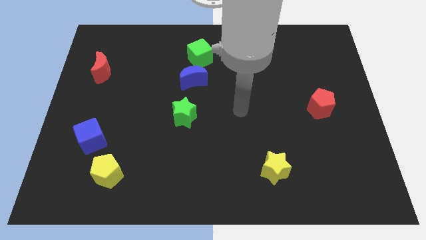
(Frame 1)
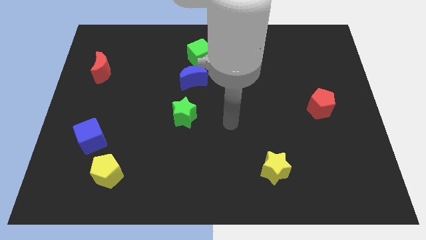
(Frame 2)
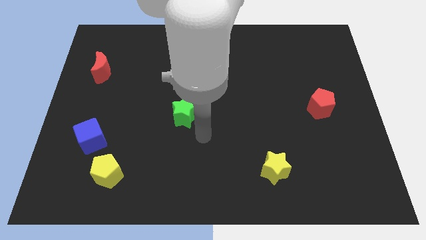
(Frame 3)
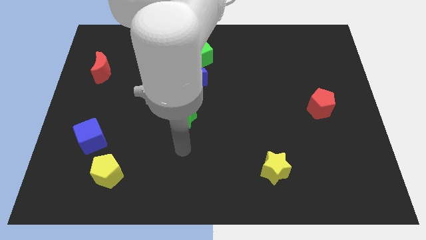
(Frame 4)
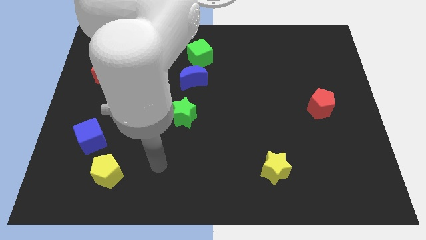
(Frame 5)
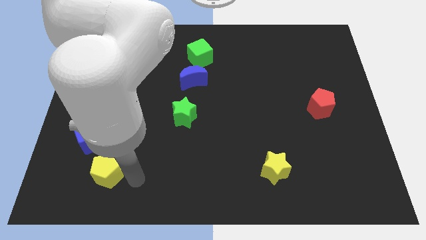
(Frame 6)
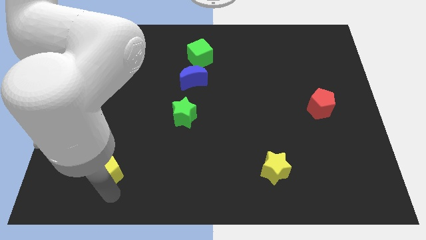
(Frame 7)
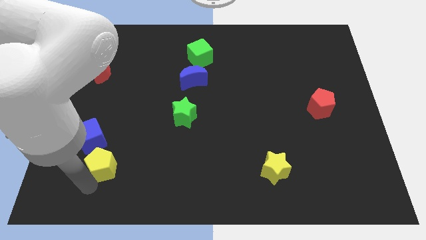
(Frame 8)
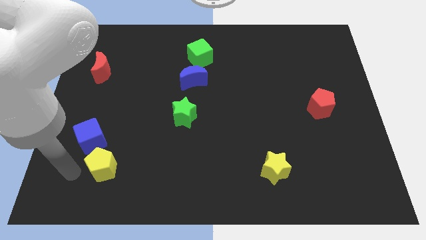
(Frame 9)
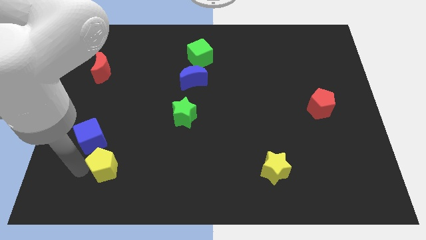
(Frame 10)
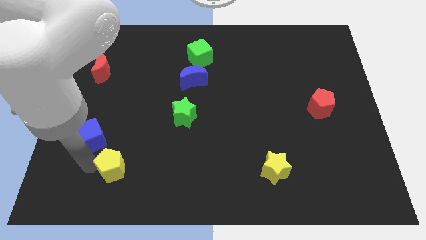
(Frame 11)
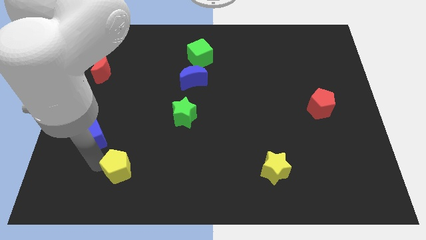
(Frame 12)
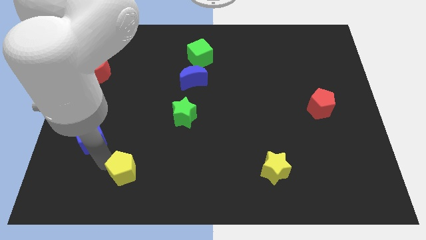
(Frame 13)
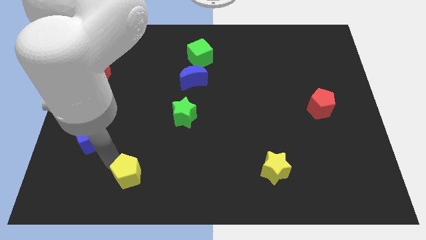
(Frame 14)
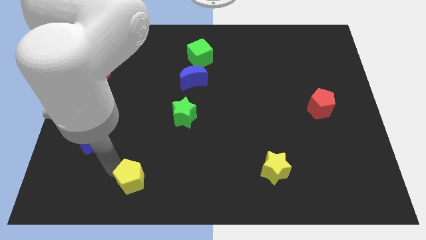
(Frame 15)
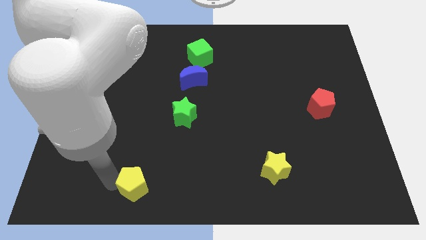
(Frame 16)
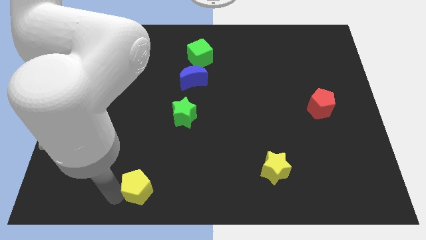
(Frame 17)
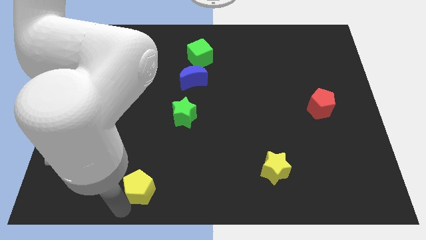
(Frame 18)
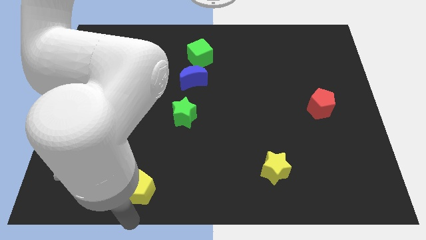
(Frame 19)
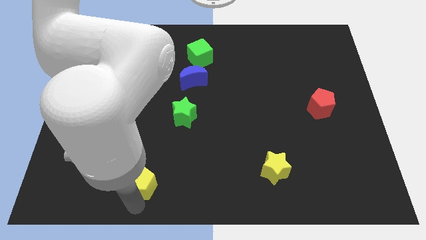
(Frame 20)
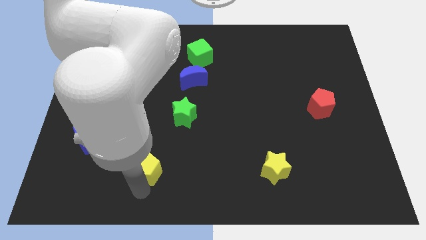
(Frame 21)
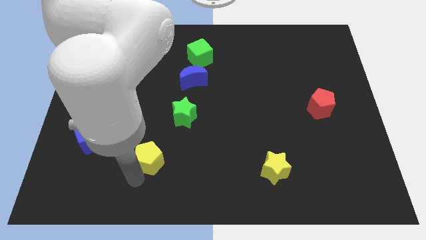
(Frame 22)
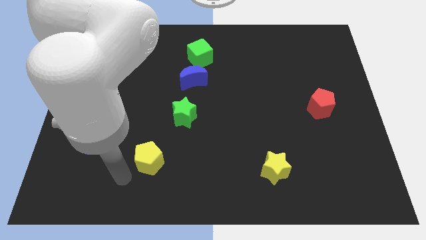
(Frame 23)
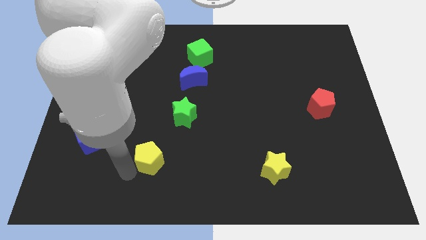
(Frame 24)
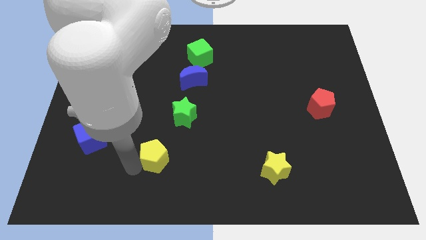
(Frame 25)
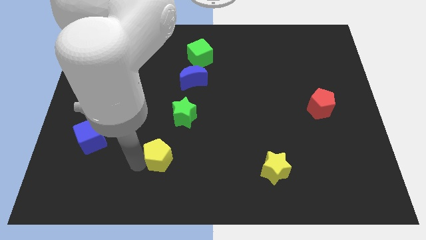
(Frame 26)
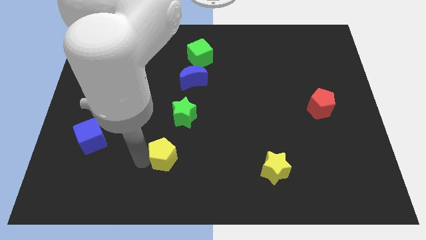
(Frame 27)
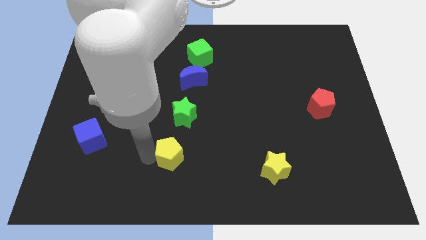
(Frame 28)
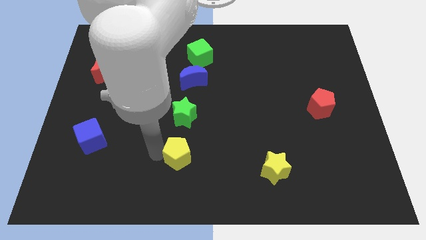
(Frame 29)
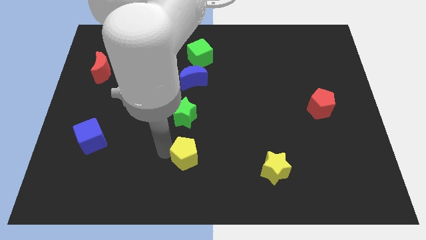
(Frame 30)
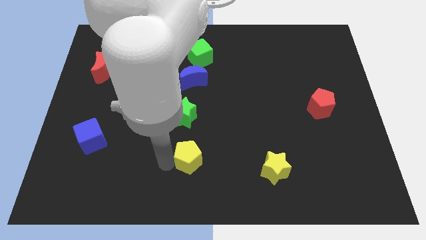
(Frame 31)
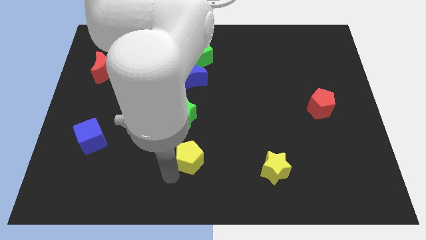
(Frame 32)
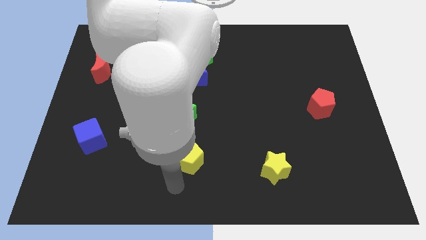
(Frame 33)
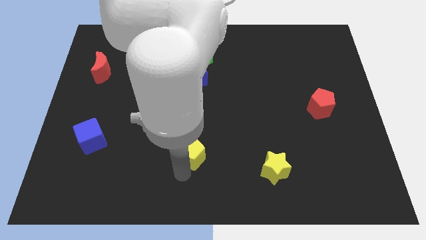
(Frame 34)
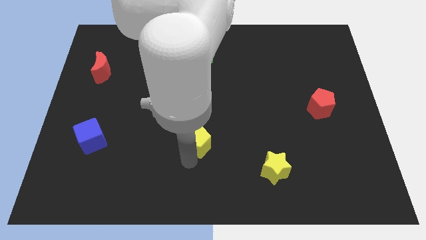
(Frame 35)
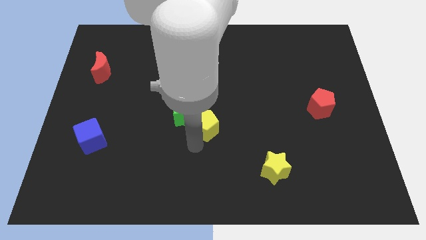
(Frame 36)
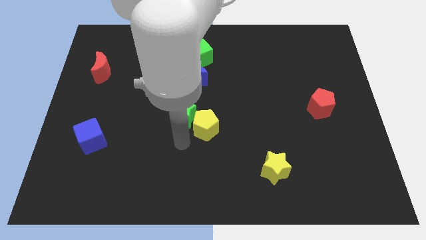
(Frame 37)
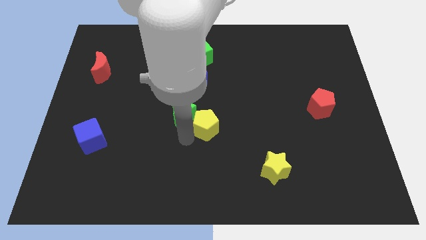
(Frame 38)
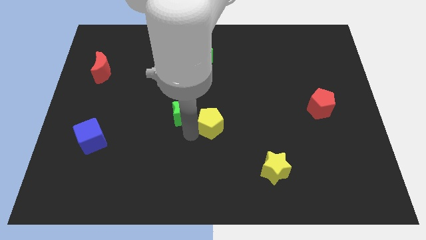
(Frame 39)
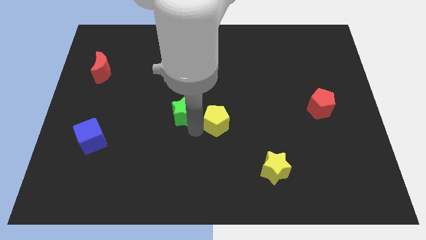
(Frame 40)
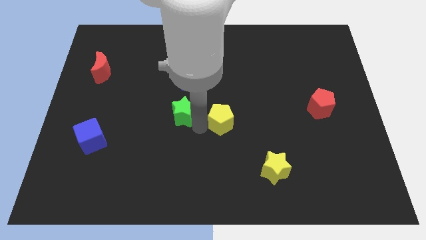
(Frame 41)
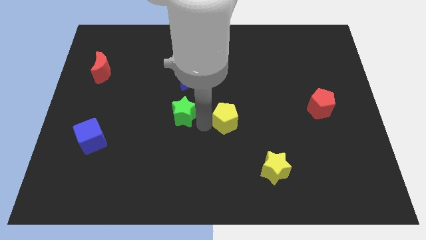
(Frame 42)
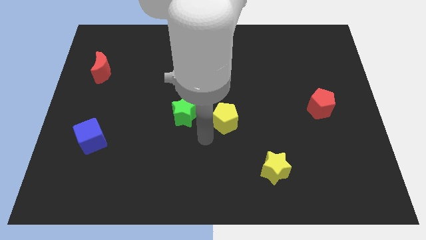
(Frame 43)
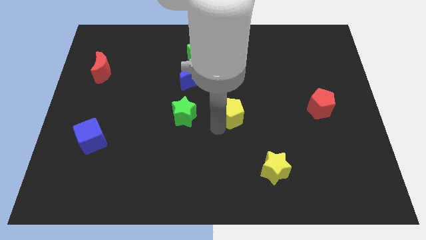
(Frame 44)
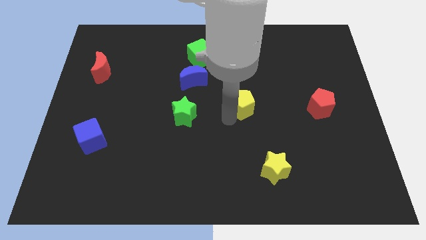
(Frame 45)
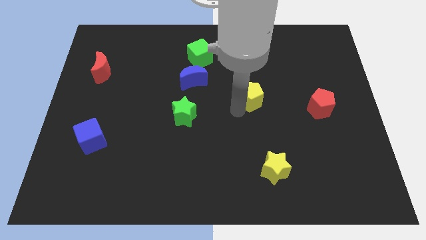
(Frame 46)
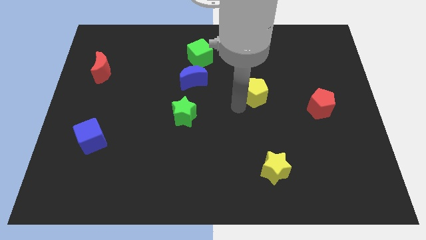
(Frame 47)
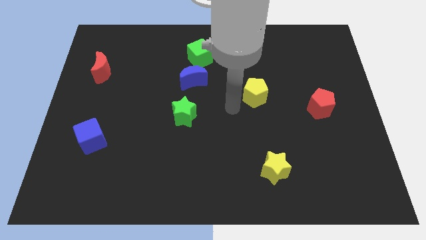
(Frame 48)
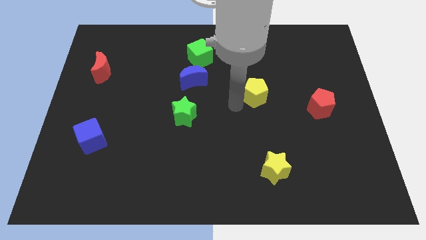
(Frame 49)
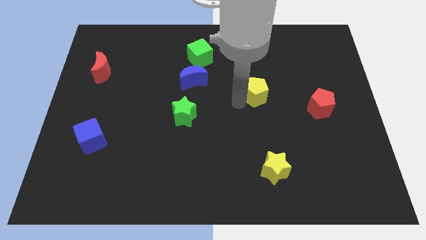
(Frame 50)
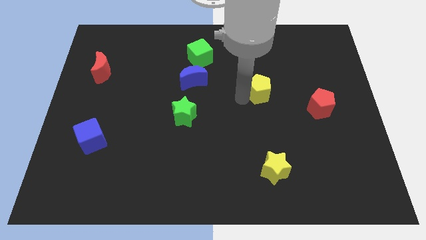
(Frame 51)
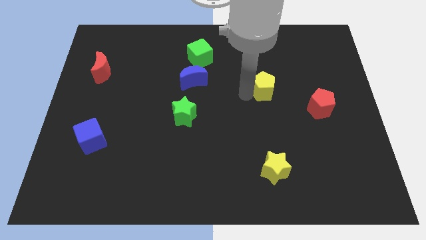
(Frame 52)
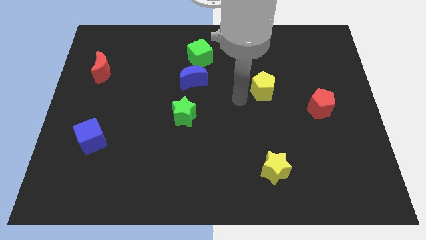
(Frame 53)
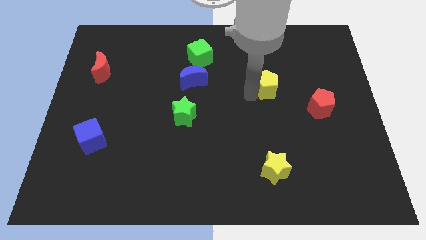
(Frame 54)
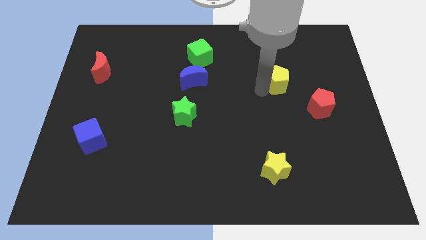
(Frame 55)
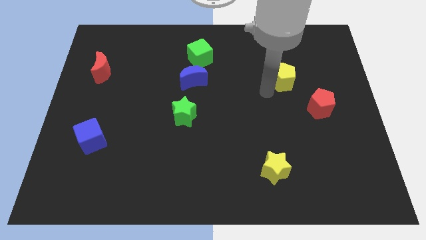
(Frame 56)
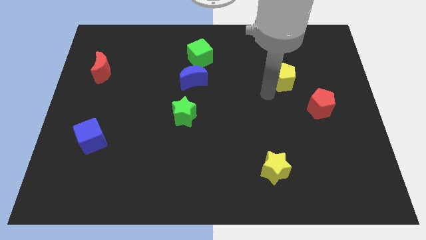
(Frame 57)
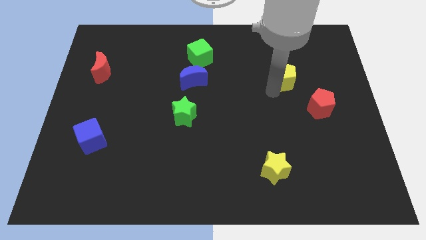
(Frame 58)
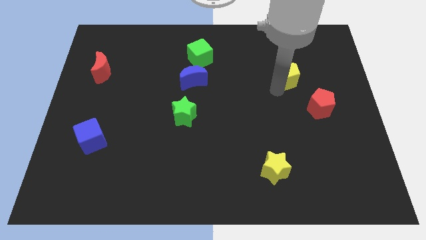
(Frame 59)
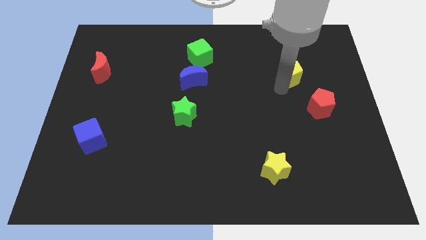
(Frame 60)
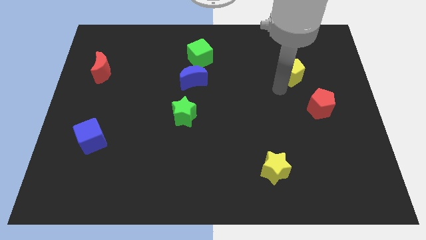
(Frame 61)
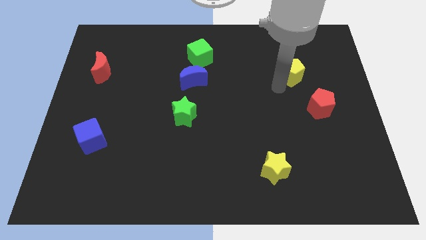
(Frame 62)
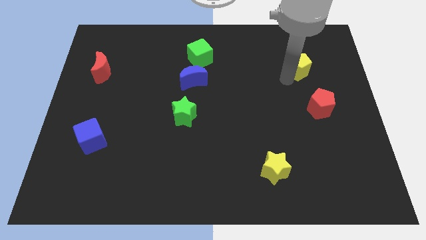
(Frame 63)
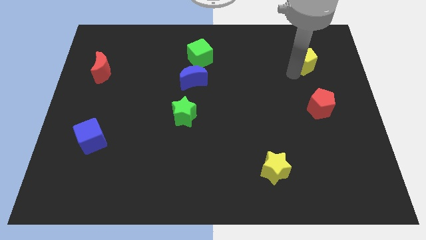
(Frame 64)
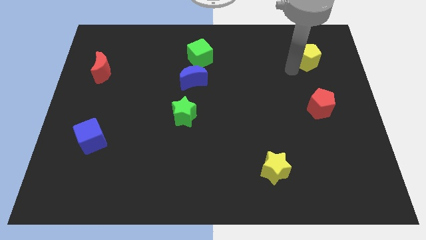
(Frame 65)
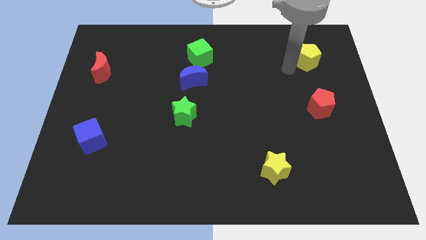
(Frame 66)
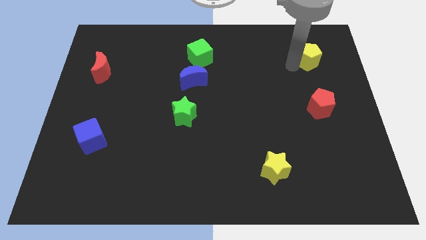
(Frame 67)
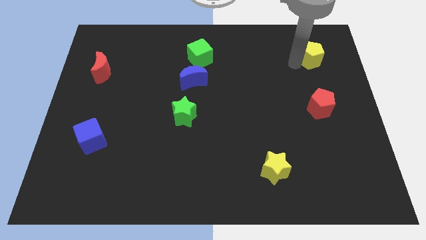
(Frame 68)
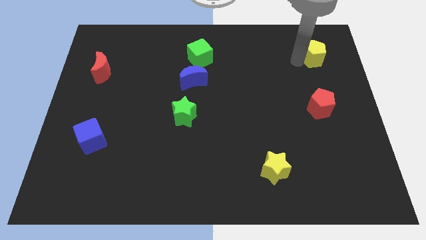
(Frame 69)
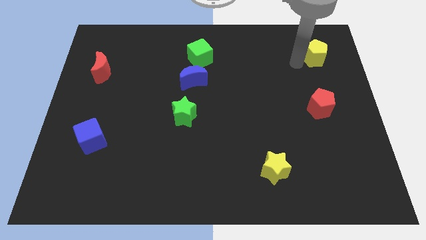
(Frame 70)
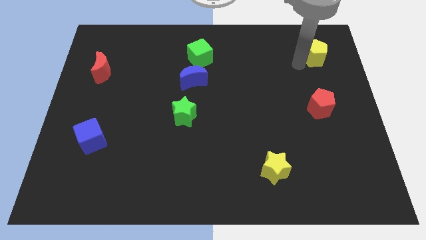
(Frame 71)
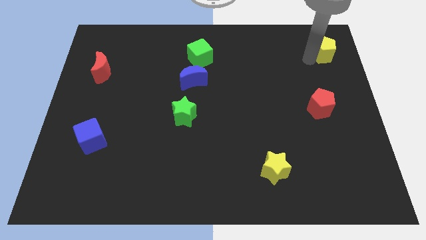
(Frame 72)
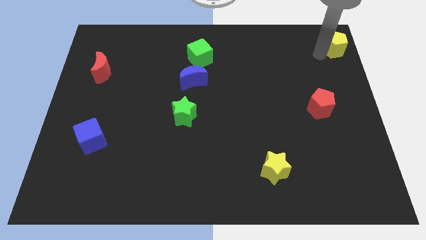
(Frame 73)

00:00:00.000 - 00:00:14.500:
push the yellow pentagon to the upper right corner
